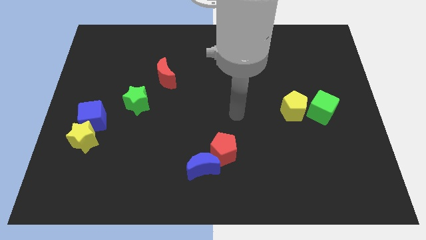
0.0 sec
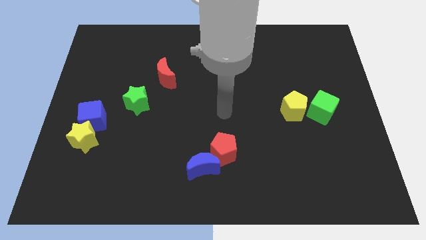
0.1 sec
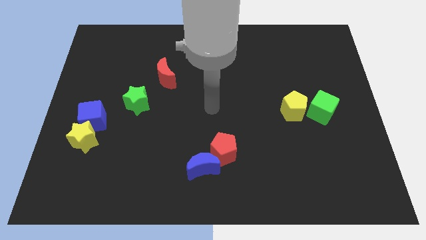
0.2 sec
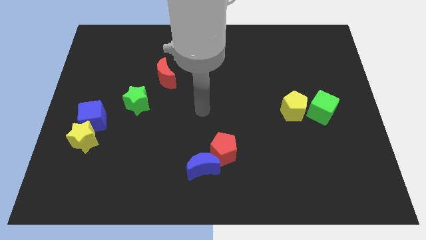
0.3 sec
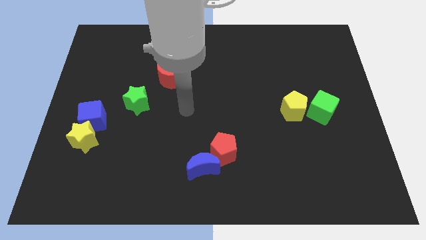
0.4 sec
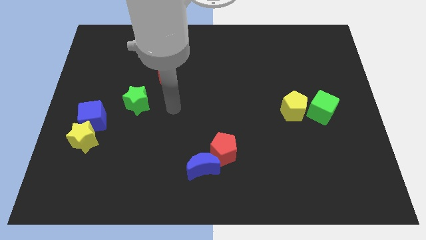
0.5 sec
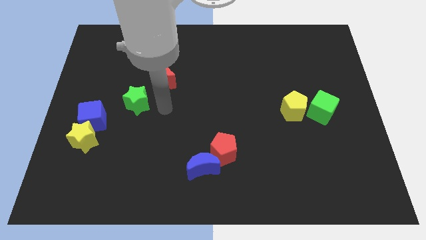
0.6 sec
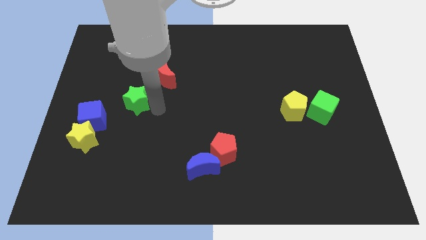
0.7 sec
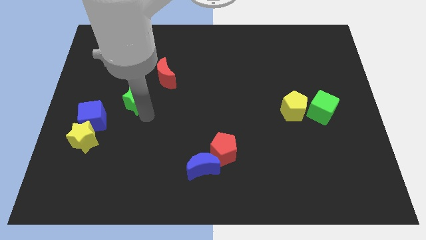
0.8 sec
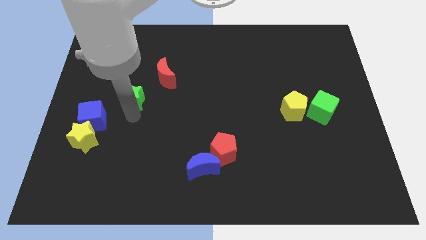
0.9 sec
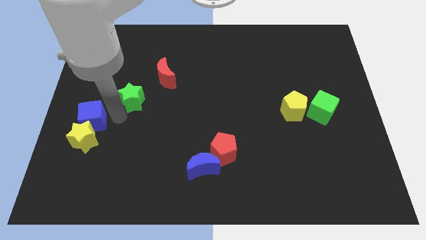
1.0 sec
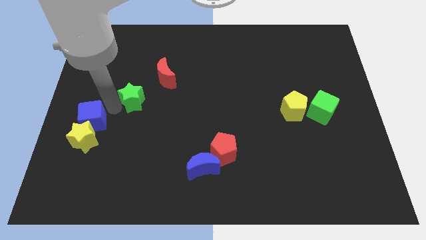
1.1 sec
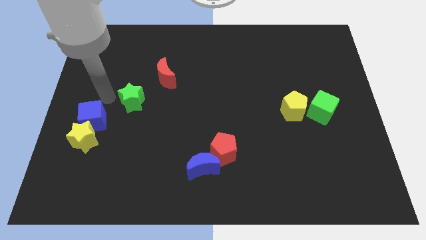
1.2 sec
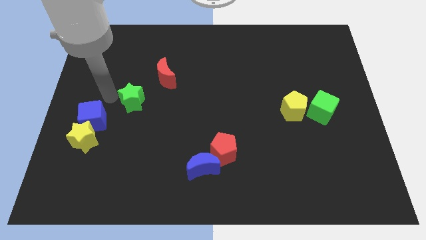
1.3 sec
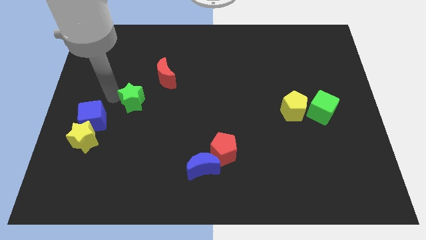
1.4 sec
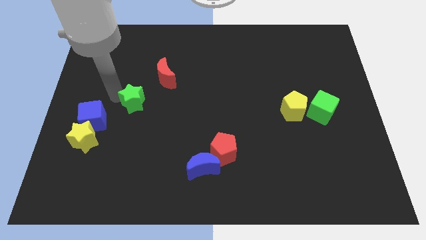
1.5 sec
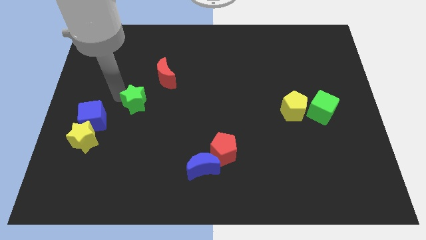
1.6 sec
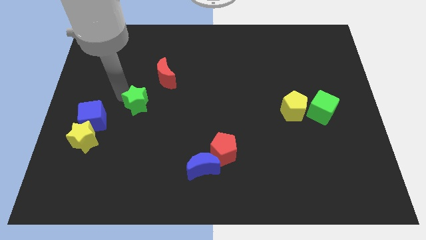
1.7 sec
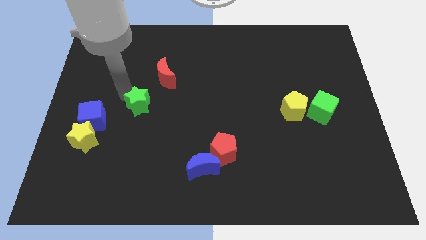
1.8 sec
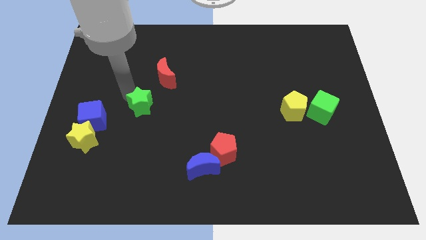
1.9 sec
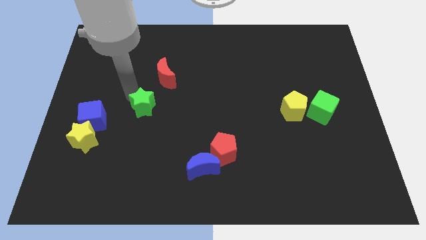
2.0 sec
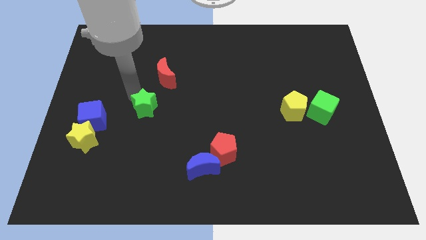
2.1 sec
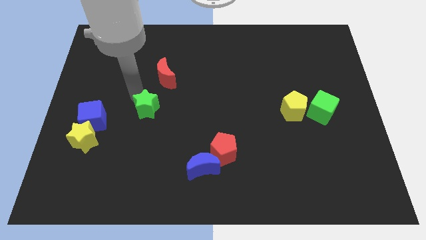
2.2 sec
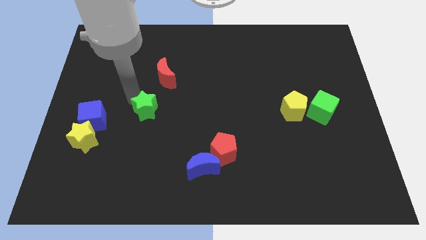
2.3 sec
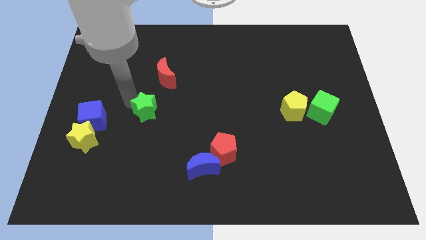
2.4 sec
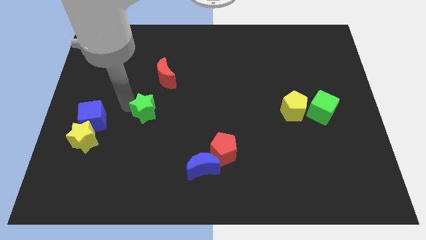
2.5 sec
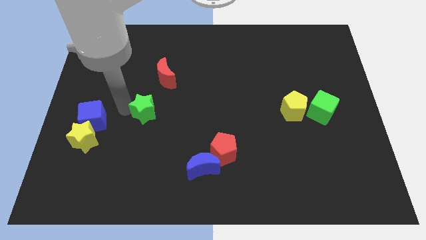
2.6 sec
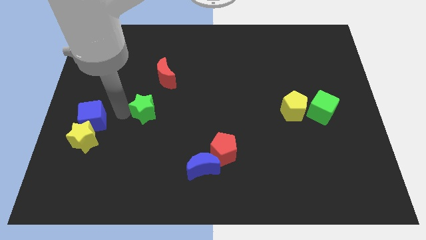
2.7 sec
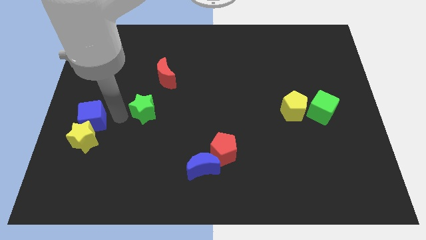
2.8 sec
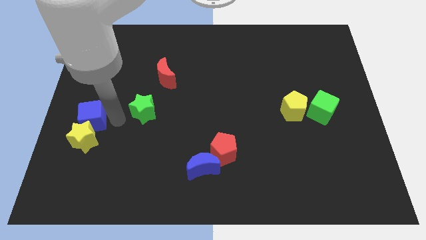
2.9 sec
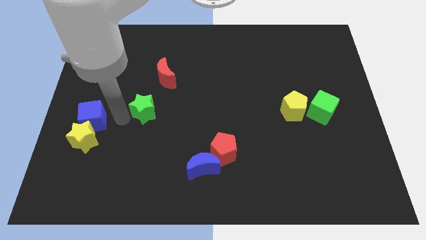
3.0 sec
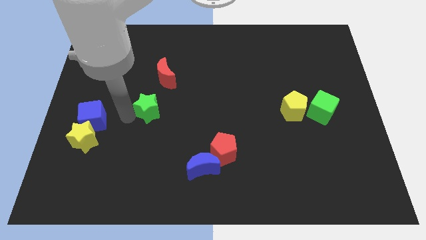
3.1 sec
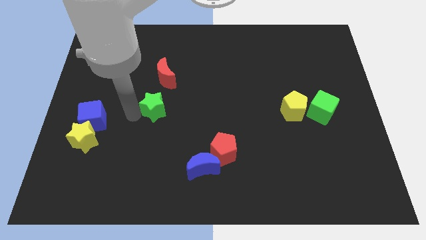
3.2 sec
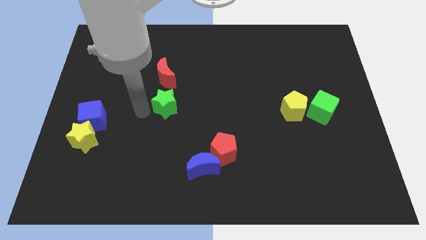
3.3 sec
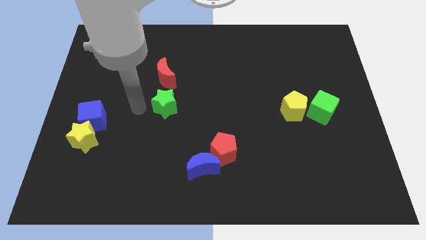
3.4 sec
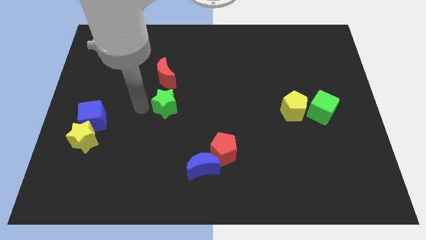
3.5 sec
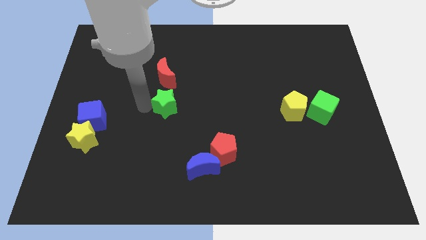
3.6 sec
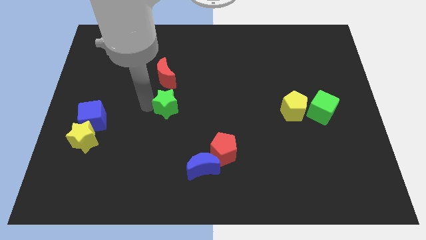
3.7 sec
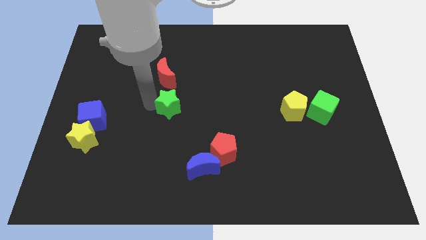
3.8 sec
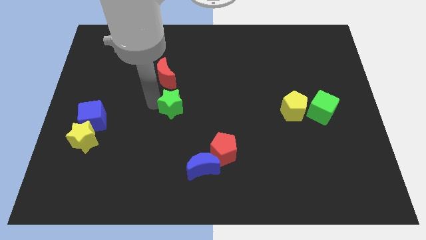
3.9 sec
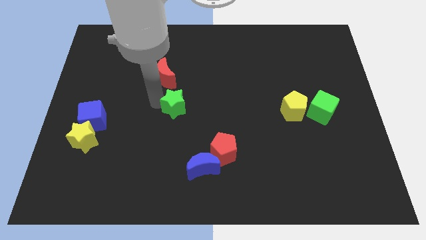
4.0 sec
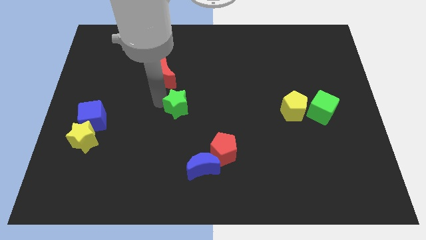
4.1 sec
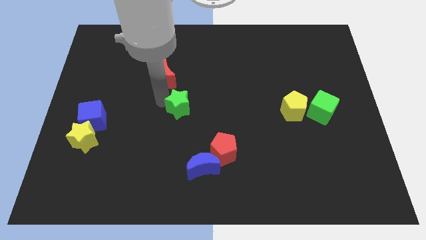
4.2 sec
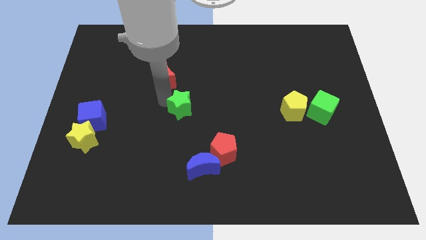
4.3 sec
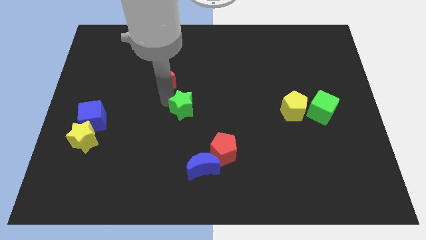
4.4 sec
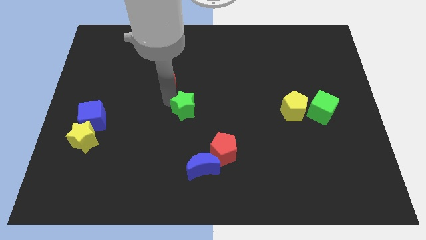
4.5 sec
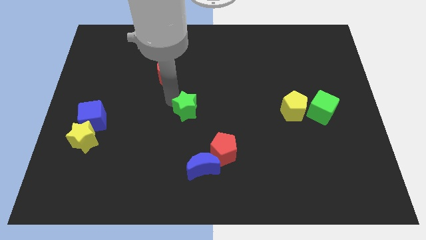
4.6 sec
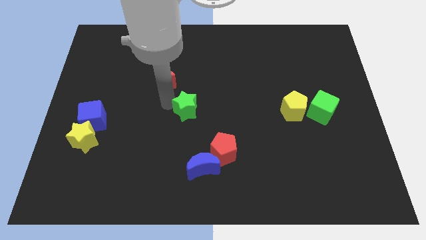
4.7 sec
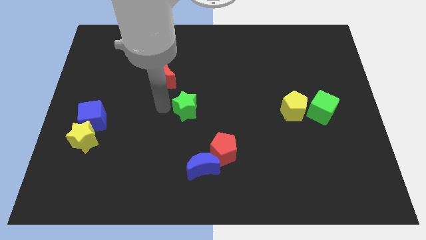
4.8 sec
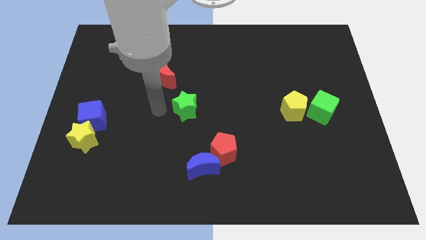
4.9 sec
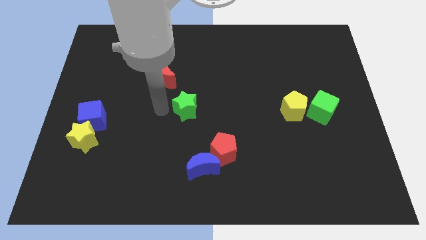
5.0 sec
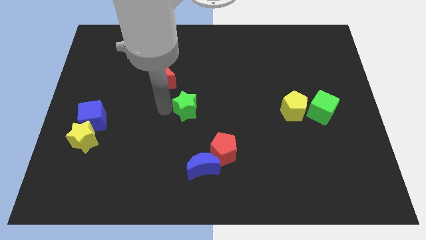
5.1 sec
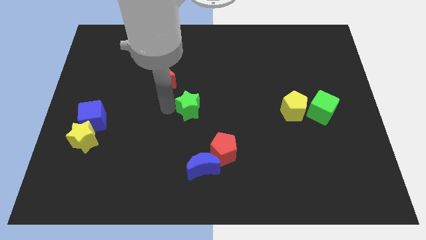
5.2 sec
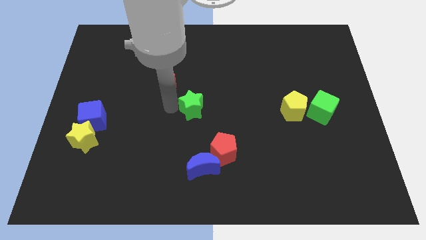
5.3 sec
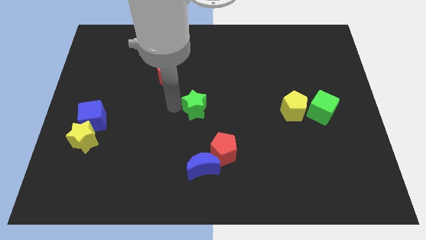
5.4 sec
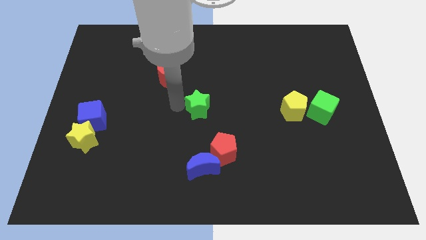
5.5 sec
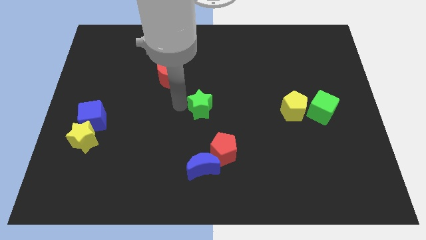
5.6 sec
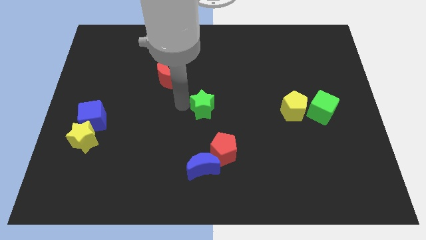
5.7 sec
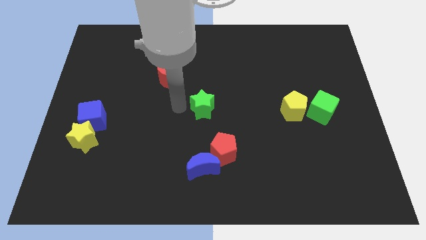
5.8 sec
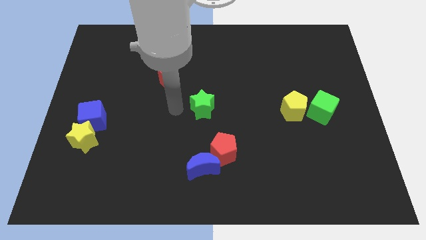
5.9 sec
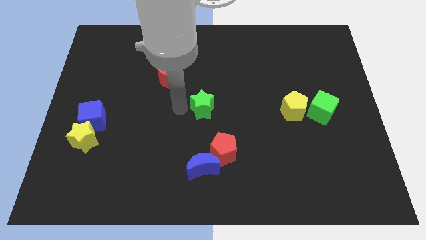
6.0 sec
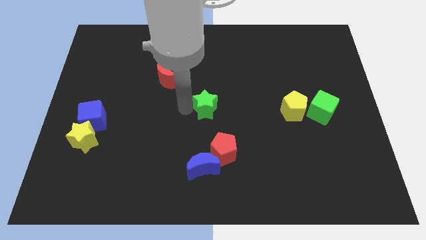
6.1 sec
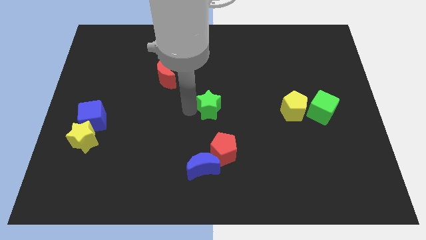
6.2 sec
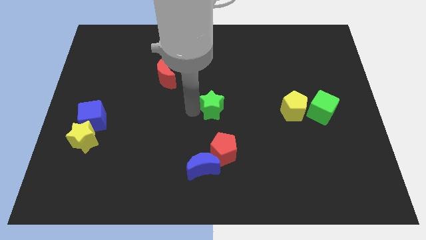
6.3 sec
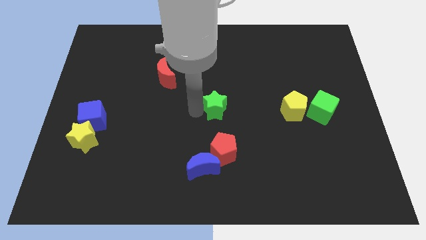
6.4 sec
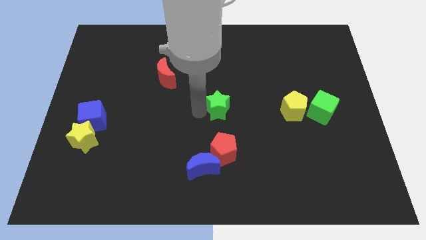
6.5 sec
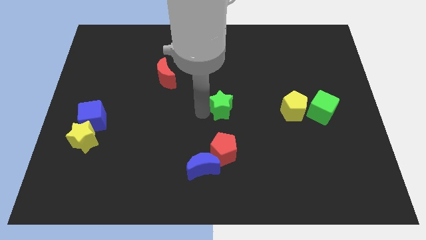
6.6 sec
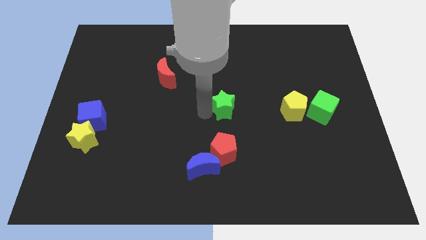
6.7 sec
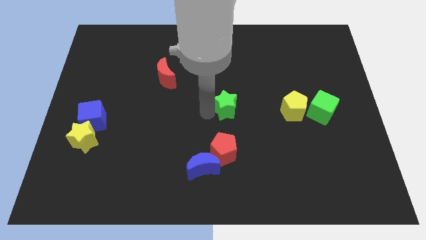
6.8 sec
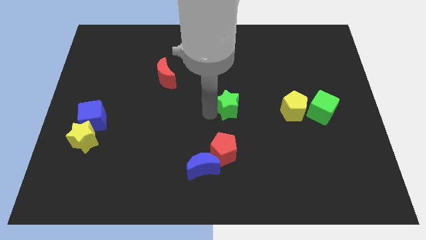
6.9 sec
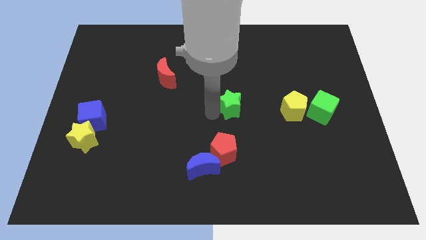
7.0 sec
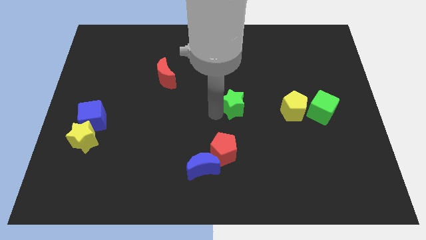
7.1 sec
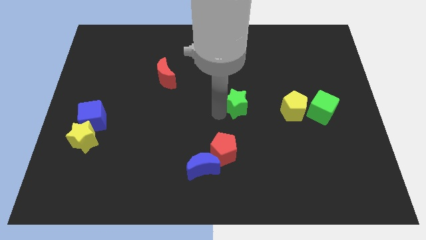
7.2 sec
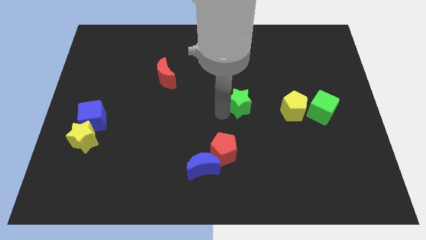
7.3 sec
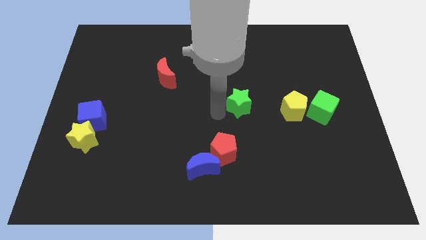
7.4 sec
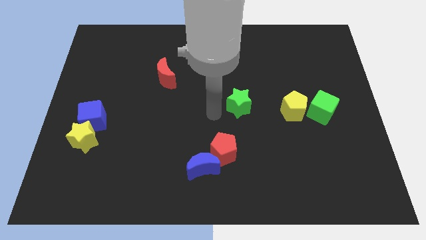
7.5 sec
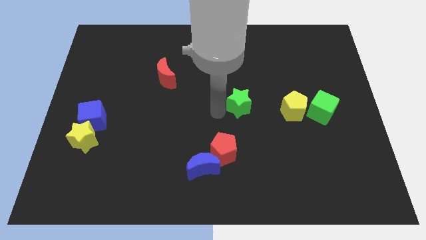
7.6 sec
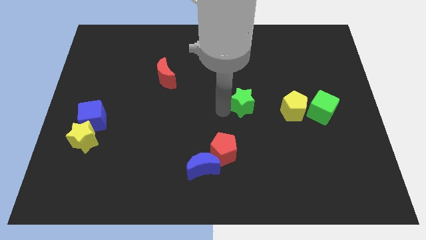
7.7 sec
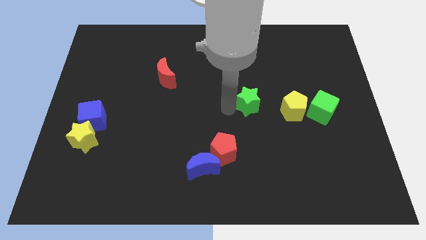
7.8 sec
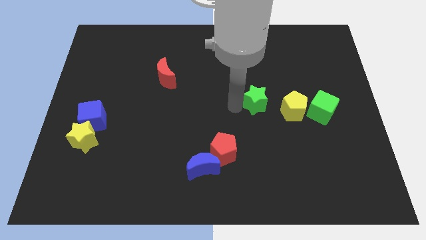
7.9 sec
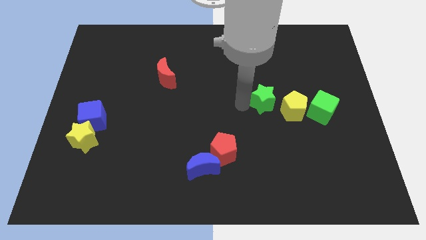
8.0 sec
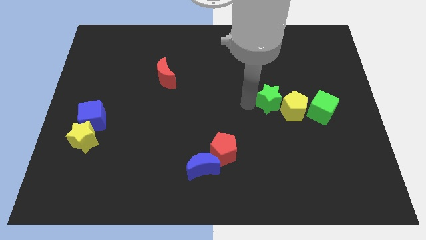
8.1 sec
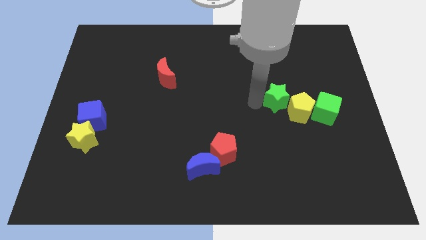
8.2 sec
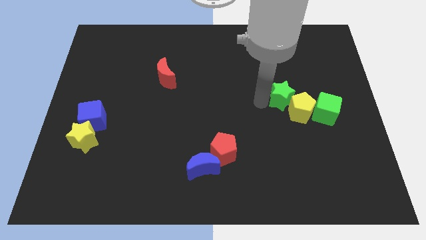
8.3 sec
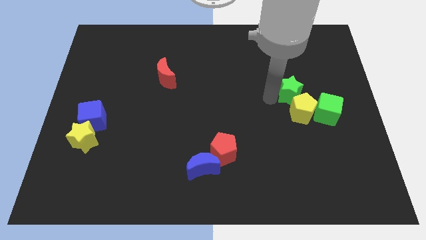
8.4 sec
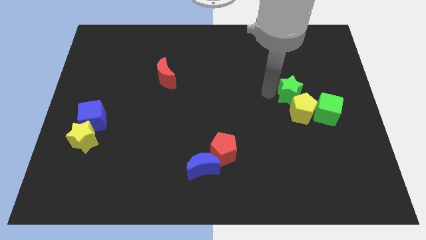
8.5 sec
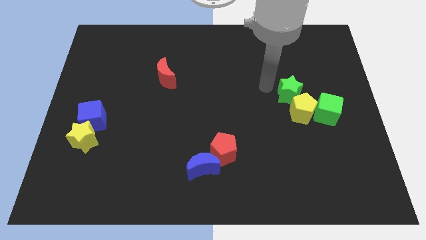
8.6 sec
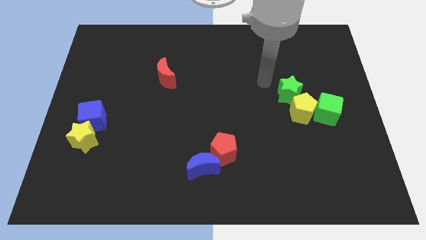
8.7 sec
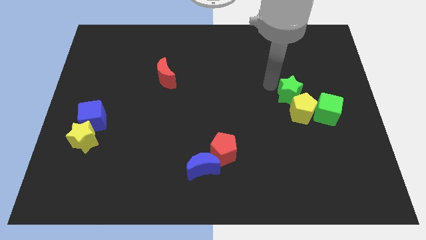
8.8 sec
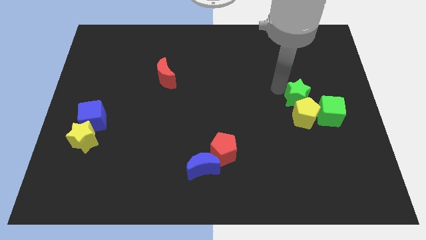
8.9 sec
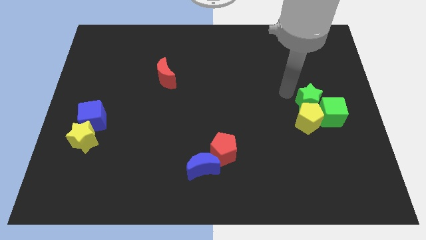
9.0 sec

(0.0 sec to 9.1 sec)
push the green star next to the green cube
